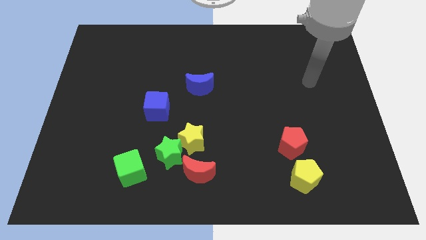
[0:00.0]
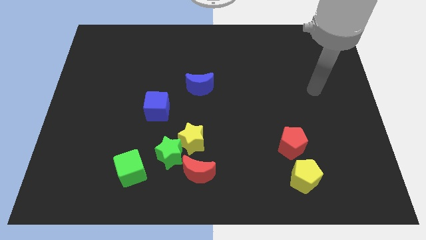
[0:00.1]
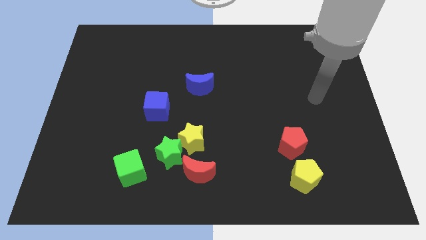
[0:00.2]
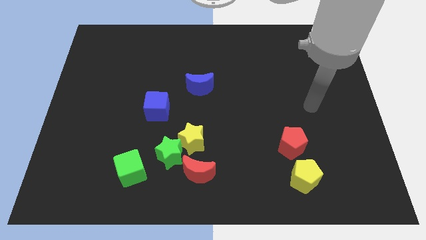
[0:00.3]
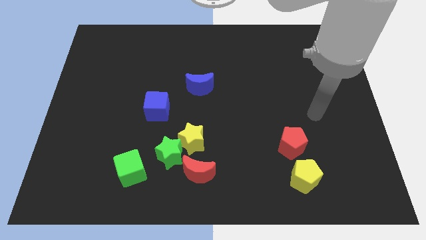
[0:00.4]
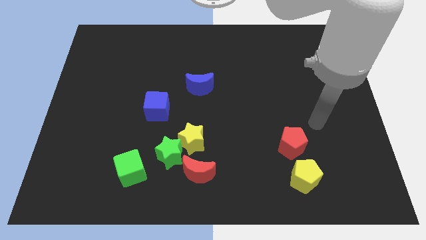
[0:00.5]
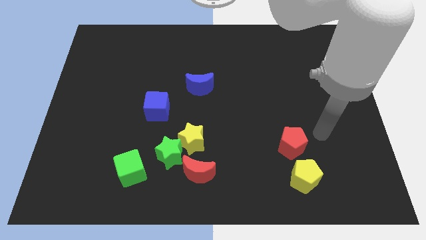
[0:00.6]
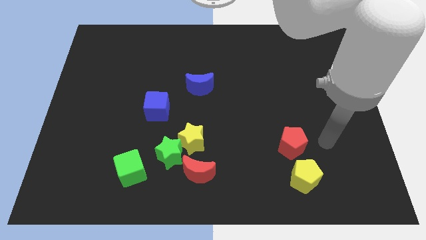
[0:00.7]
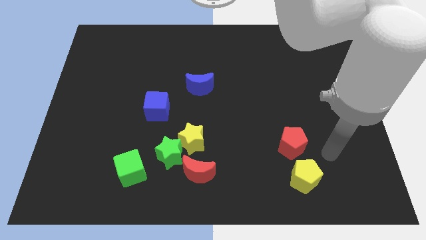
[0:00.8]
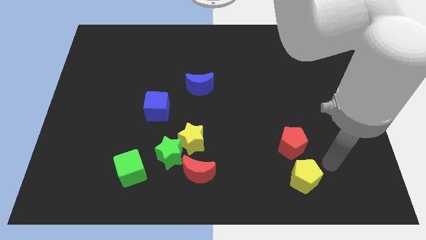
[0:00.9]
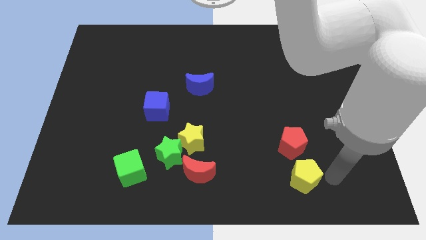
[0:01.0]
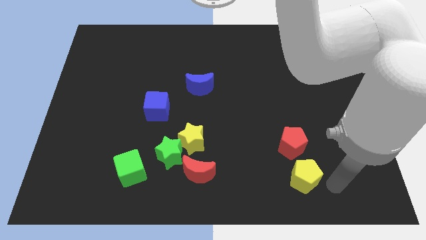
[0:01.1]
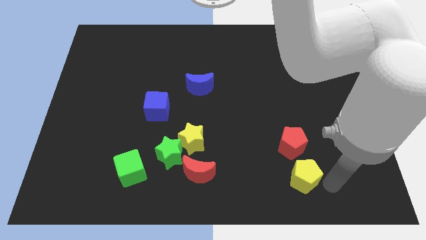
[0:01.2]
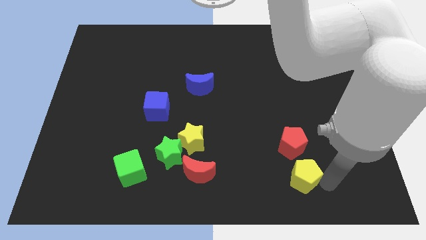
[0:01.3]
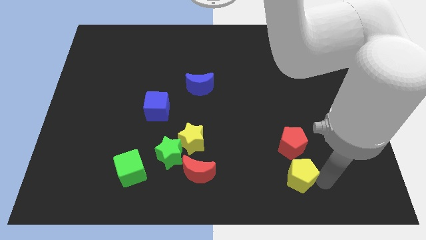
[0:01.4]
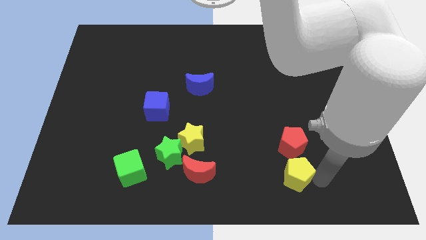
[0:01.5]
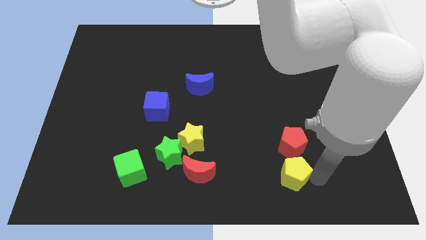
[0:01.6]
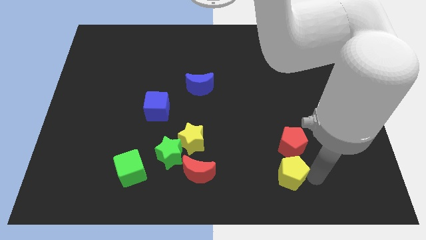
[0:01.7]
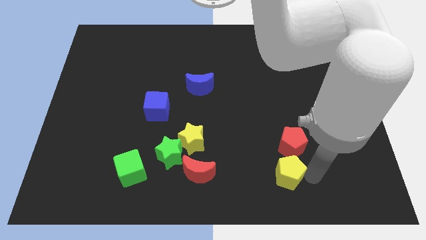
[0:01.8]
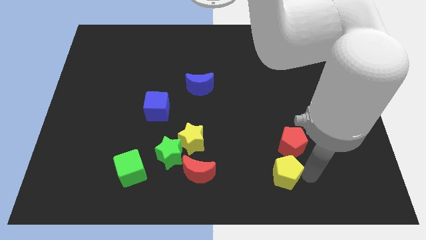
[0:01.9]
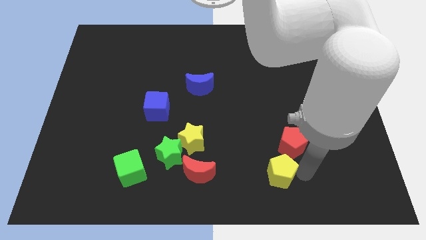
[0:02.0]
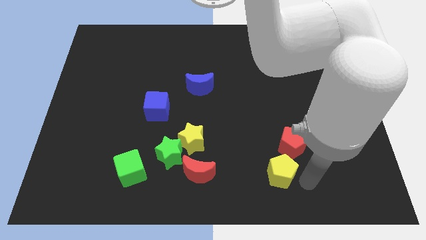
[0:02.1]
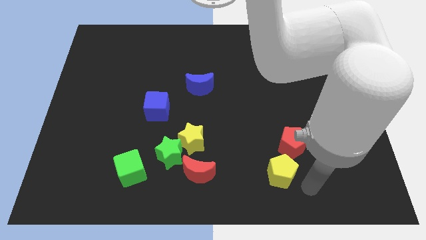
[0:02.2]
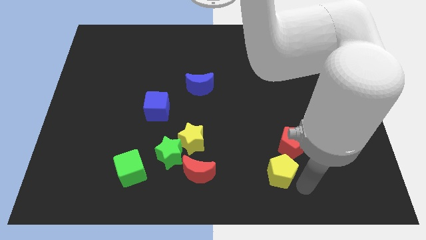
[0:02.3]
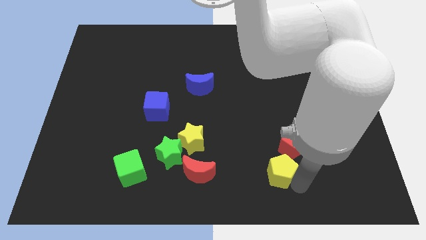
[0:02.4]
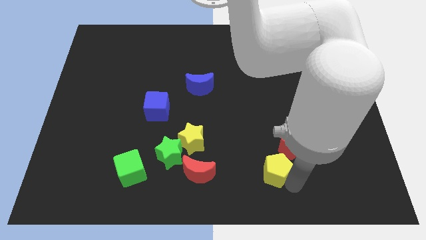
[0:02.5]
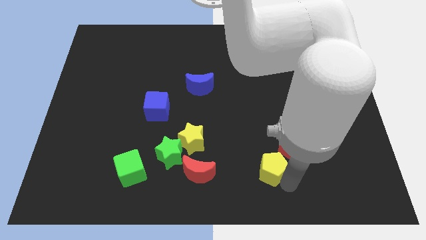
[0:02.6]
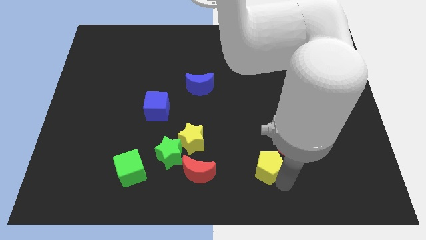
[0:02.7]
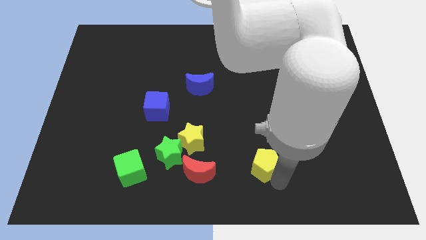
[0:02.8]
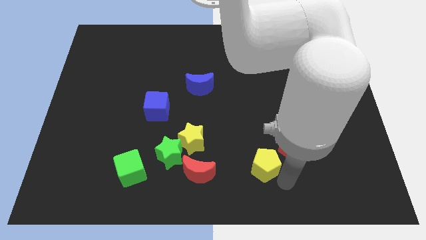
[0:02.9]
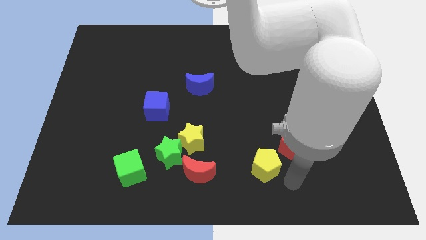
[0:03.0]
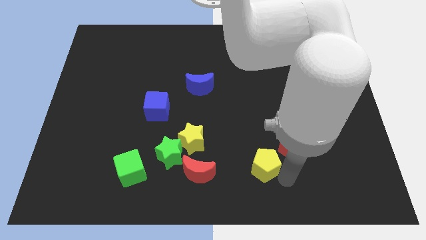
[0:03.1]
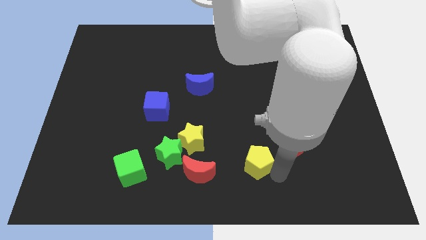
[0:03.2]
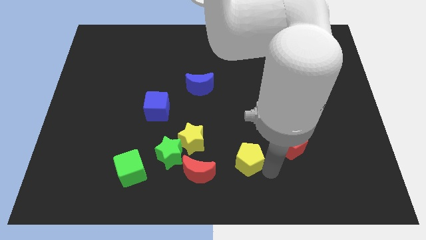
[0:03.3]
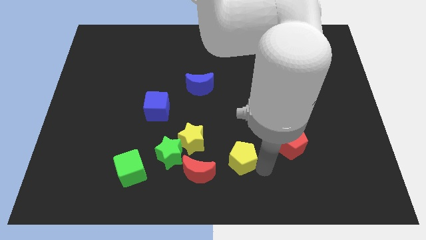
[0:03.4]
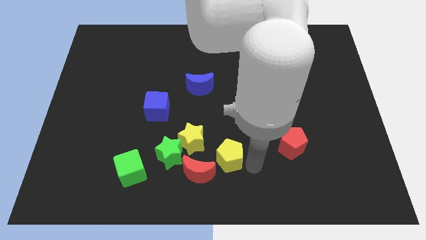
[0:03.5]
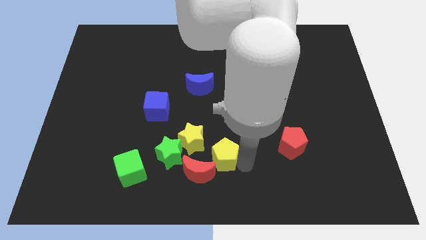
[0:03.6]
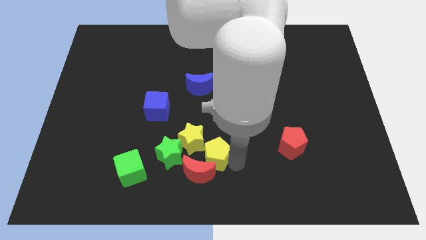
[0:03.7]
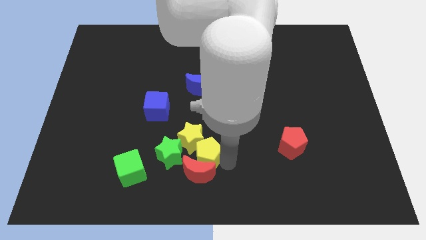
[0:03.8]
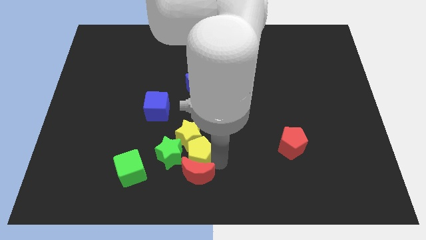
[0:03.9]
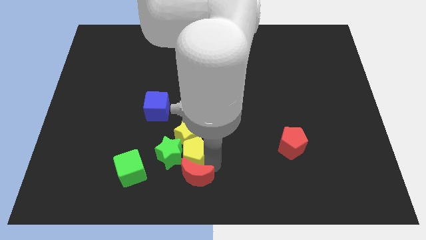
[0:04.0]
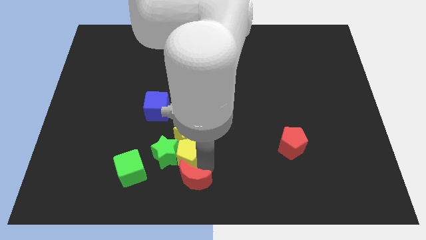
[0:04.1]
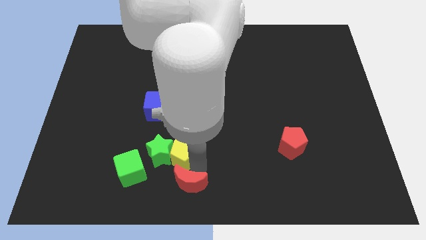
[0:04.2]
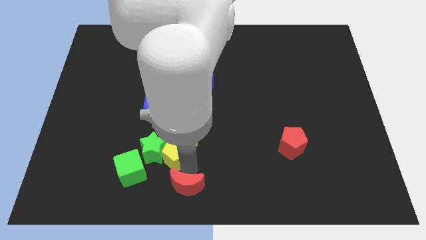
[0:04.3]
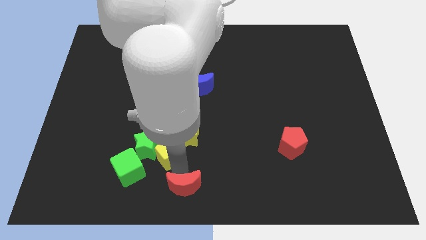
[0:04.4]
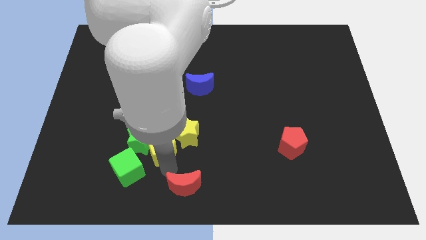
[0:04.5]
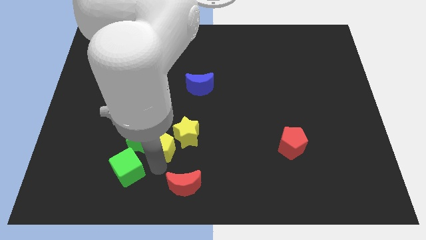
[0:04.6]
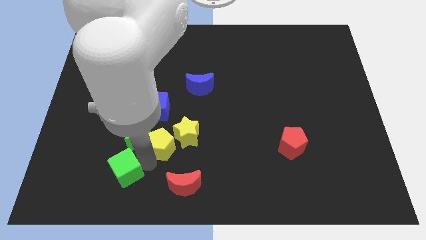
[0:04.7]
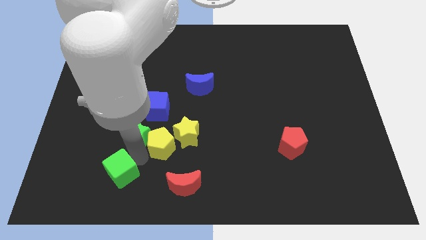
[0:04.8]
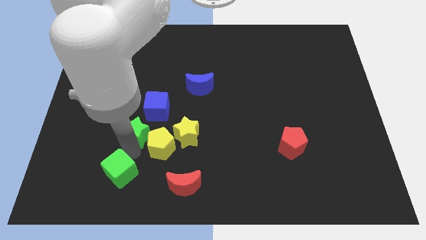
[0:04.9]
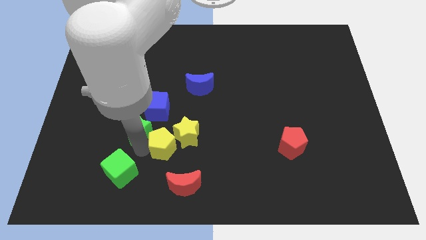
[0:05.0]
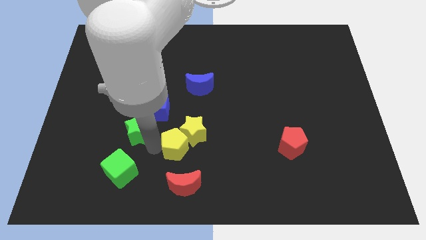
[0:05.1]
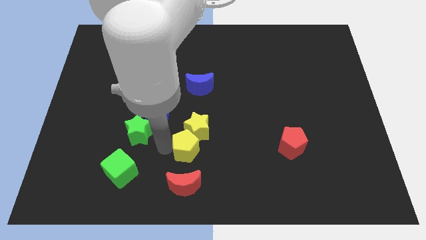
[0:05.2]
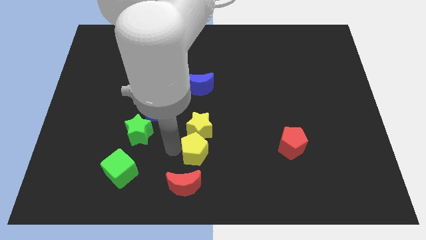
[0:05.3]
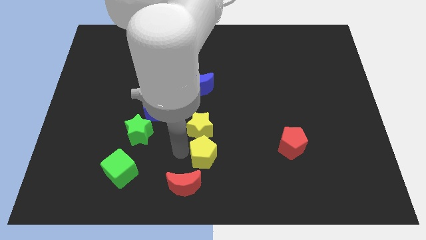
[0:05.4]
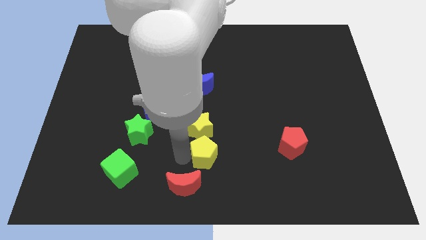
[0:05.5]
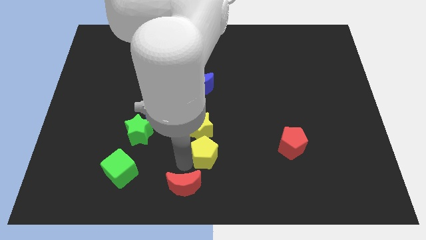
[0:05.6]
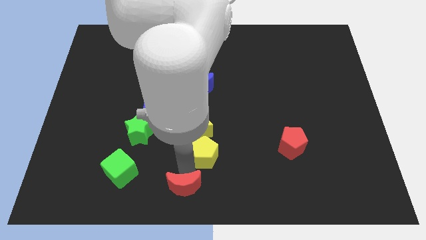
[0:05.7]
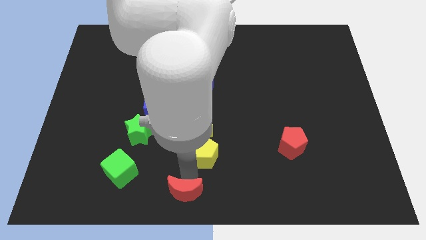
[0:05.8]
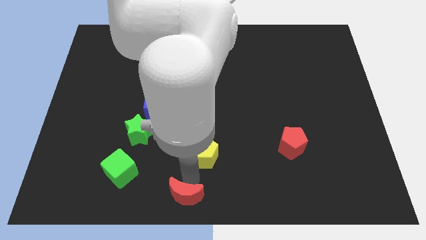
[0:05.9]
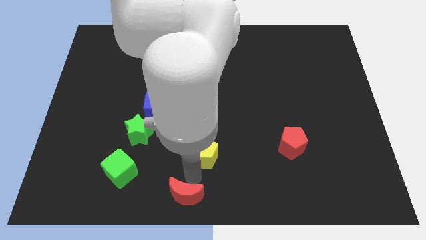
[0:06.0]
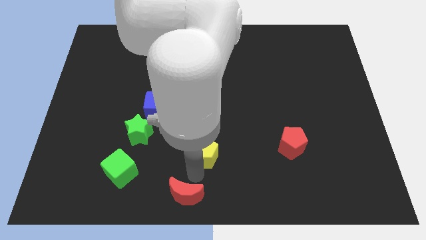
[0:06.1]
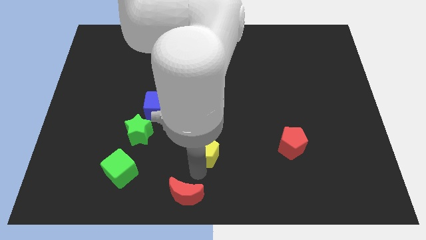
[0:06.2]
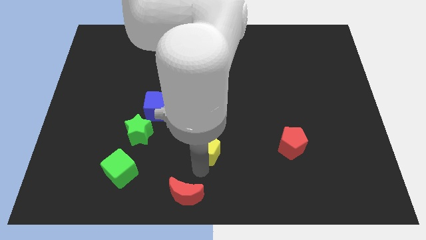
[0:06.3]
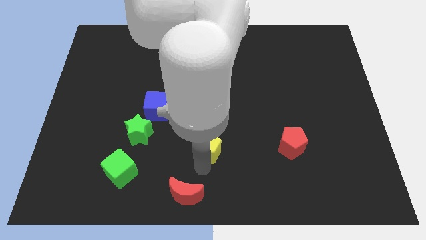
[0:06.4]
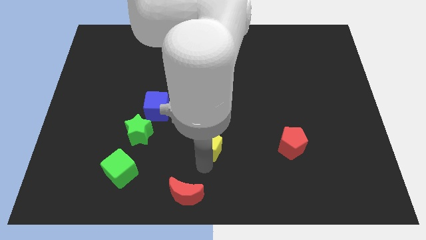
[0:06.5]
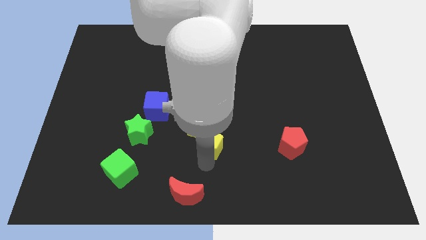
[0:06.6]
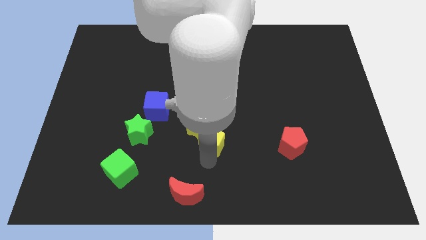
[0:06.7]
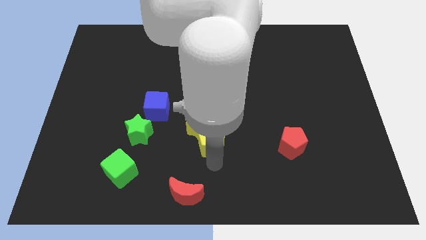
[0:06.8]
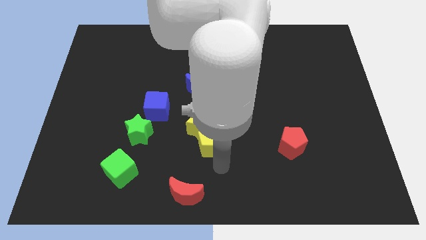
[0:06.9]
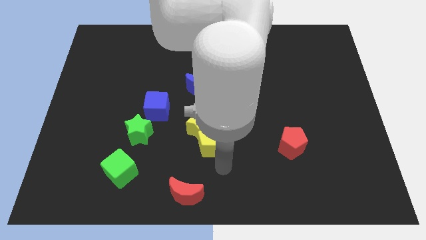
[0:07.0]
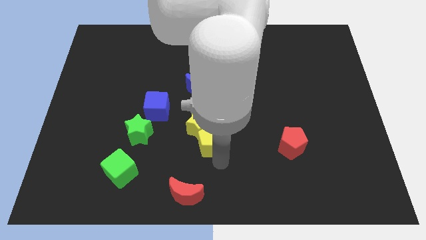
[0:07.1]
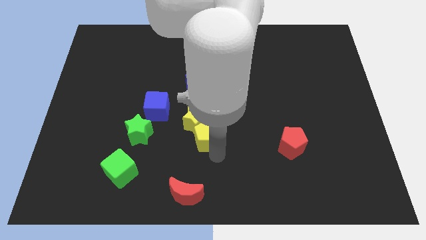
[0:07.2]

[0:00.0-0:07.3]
slide the yellow pentagon to the bottom side of the blue moon

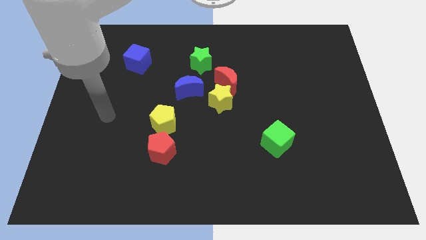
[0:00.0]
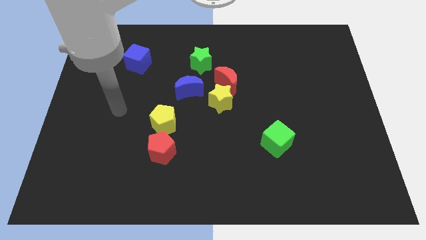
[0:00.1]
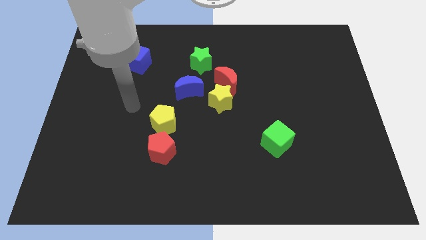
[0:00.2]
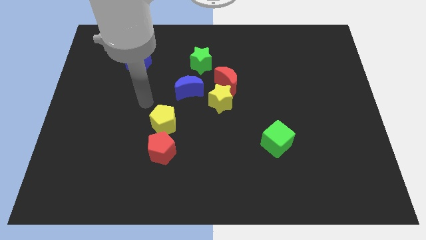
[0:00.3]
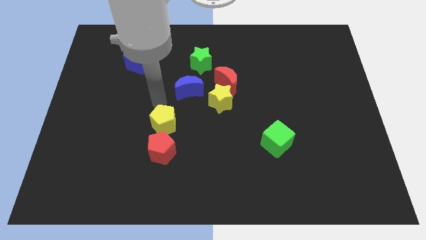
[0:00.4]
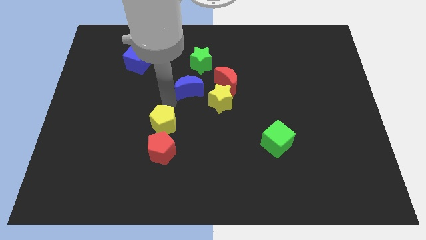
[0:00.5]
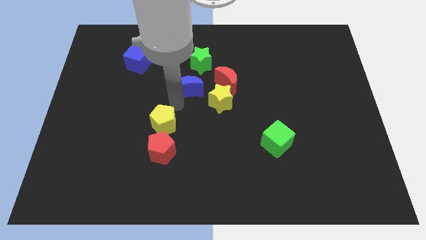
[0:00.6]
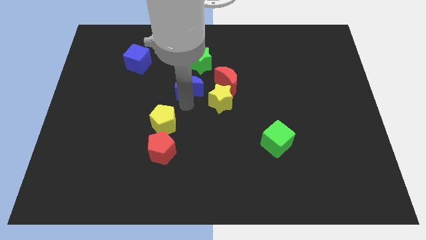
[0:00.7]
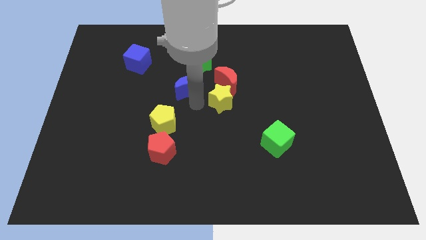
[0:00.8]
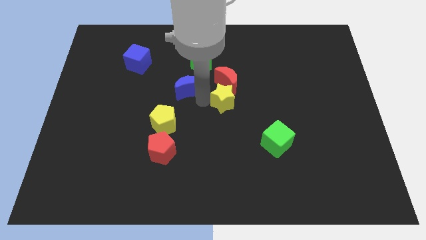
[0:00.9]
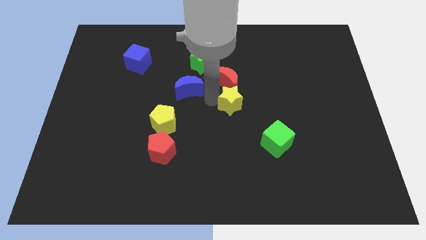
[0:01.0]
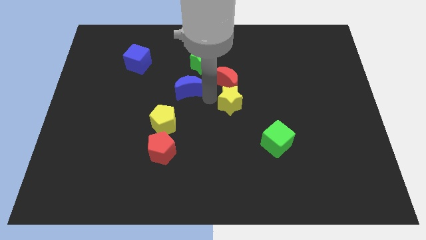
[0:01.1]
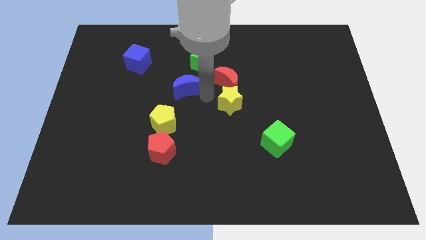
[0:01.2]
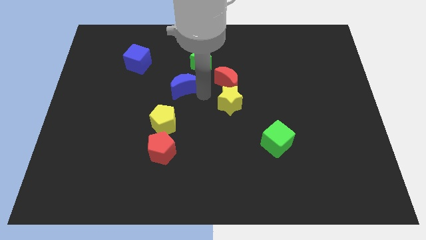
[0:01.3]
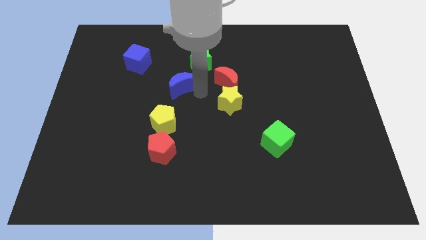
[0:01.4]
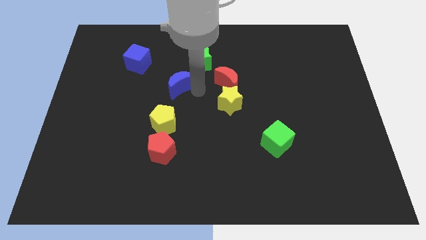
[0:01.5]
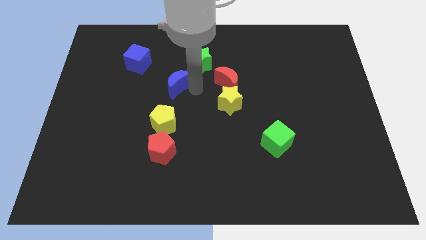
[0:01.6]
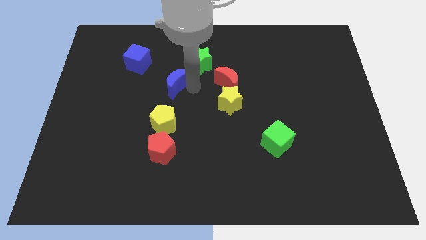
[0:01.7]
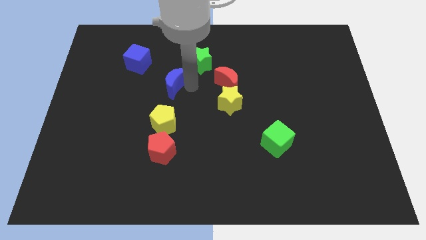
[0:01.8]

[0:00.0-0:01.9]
push the blue moon to the bottom right side of the blue cube
